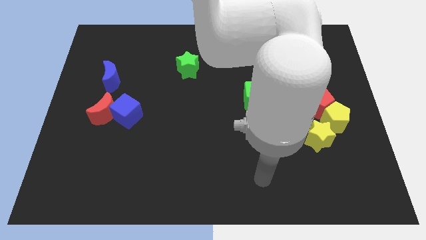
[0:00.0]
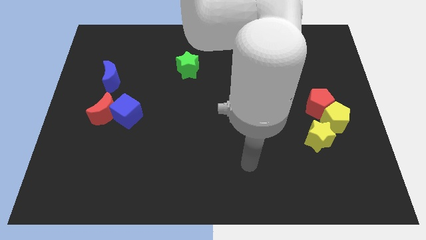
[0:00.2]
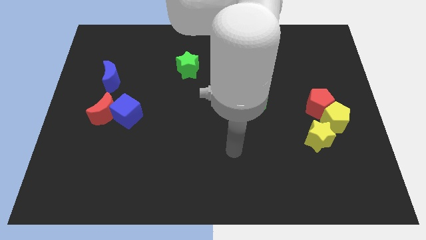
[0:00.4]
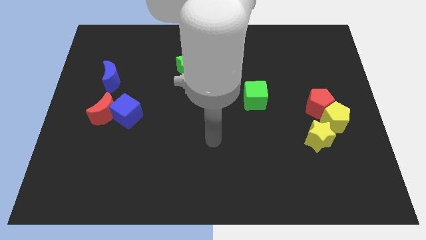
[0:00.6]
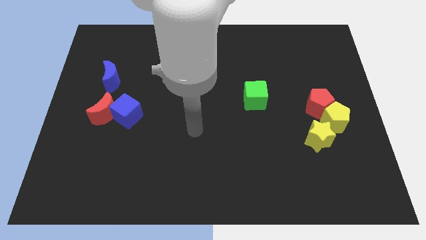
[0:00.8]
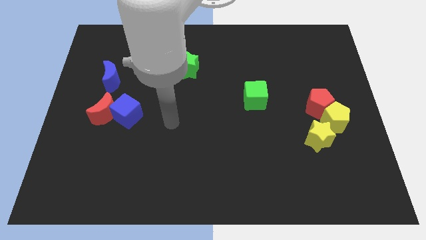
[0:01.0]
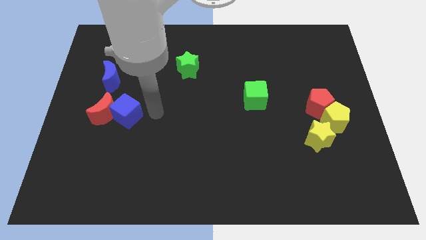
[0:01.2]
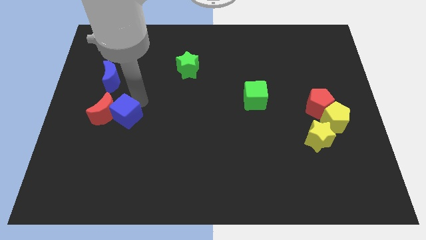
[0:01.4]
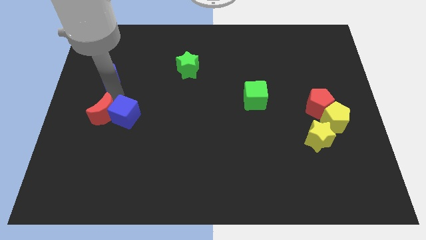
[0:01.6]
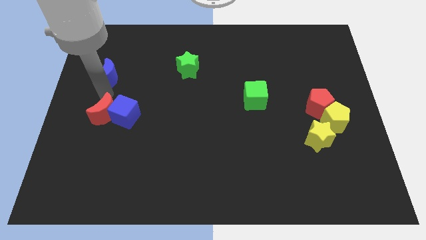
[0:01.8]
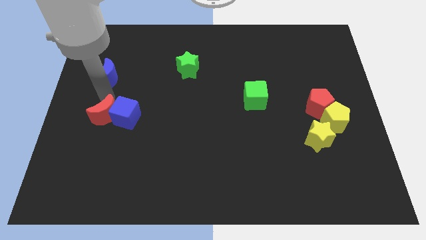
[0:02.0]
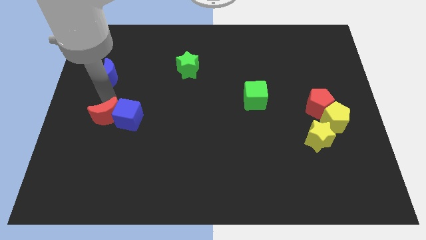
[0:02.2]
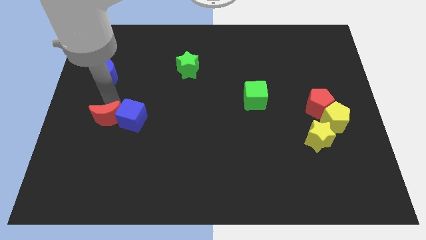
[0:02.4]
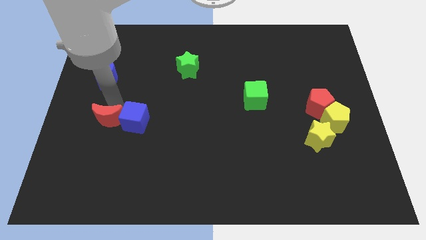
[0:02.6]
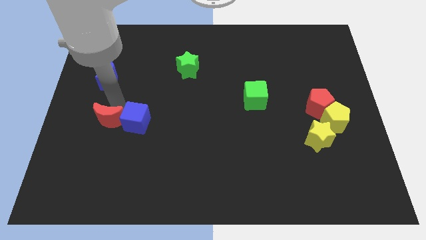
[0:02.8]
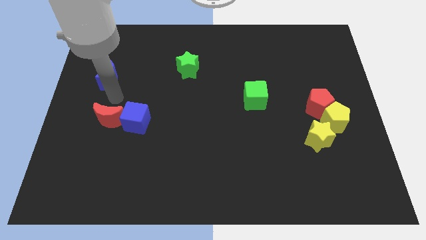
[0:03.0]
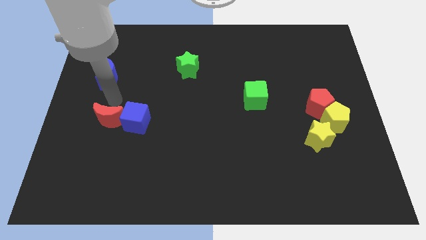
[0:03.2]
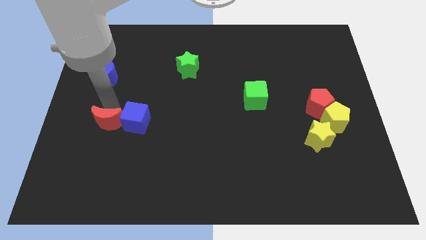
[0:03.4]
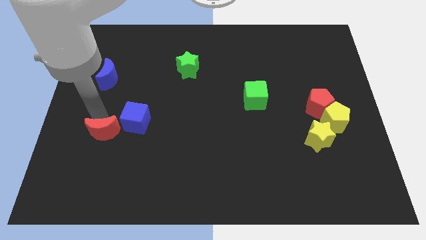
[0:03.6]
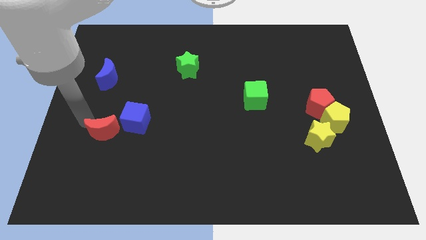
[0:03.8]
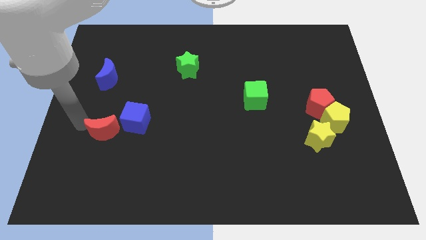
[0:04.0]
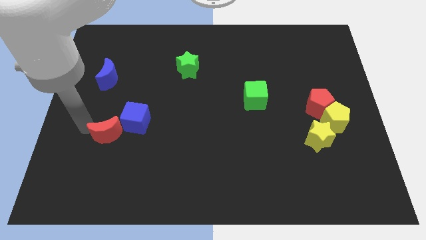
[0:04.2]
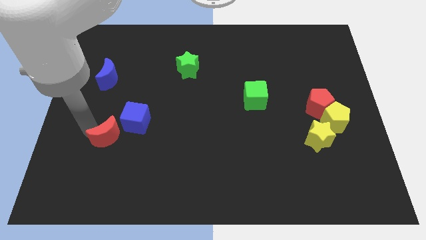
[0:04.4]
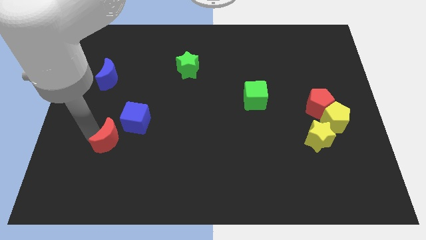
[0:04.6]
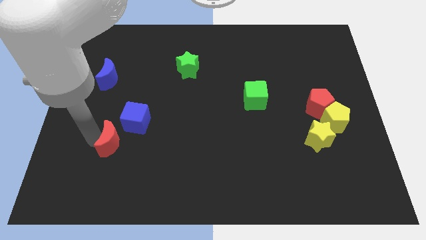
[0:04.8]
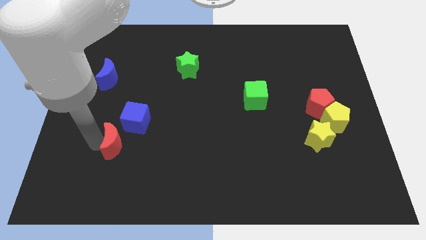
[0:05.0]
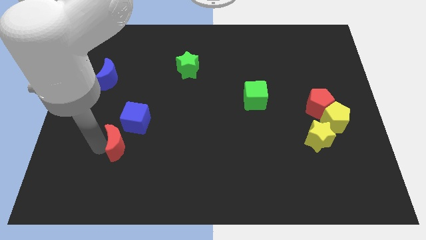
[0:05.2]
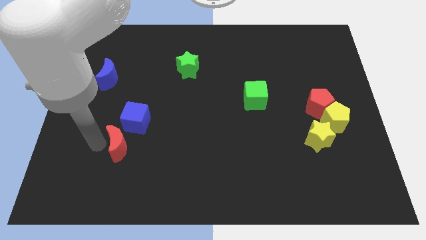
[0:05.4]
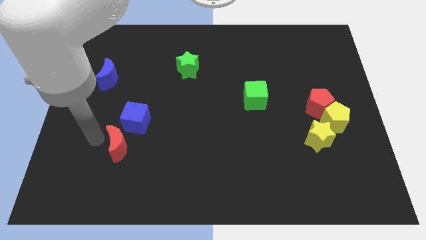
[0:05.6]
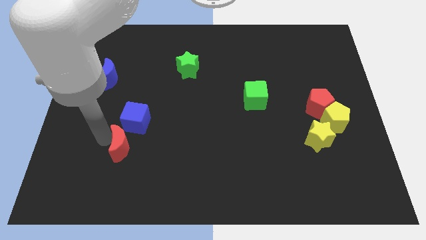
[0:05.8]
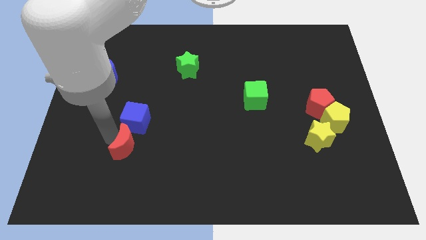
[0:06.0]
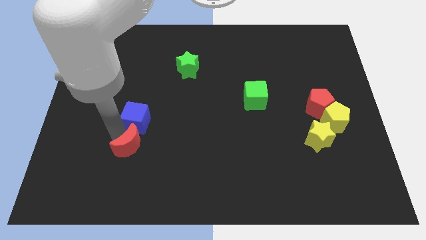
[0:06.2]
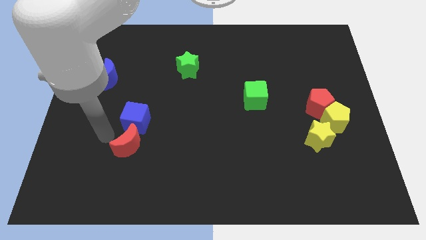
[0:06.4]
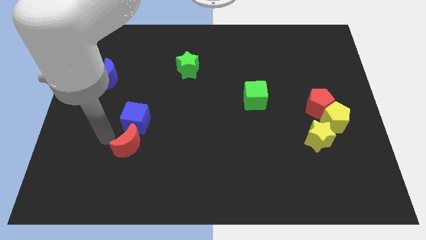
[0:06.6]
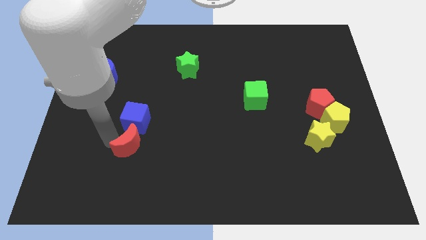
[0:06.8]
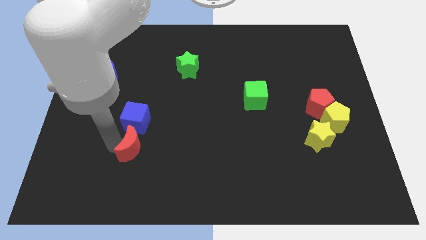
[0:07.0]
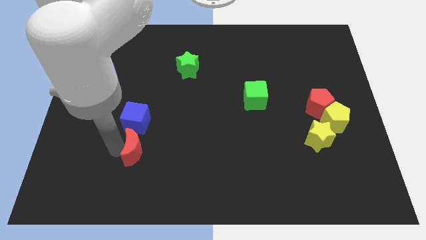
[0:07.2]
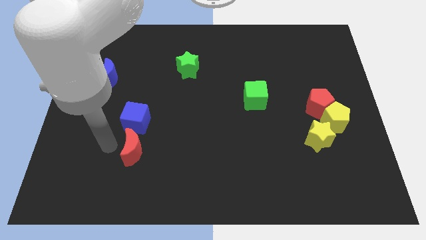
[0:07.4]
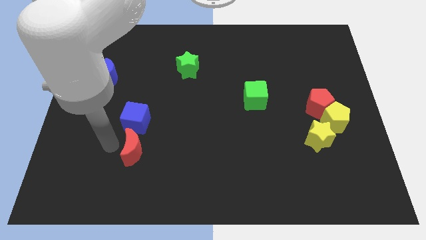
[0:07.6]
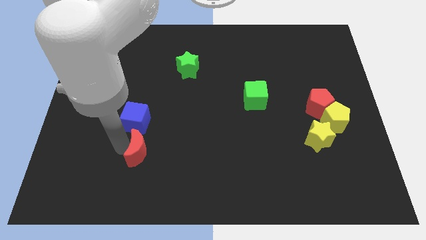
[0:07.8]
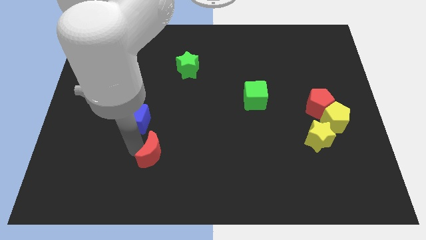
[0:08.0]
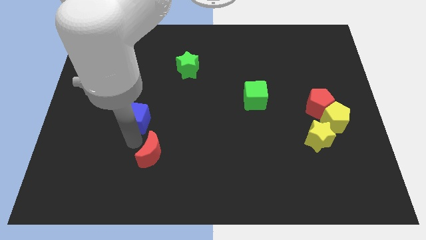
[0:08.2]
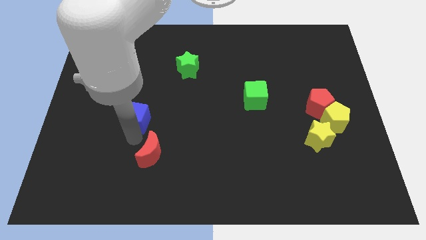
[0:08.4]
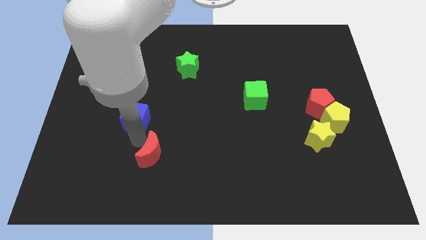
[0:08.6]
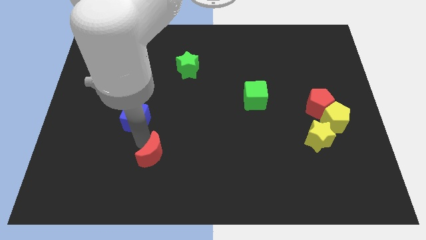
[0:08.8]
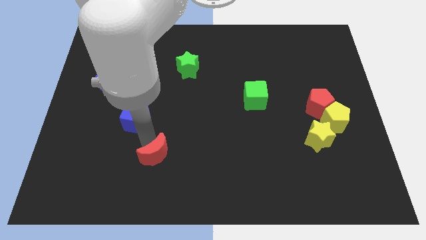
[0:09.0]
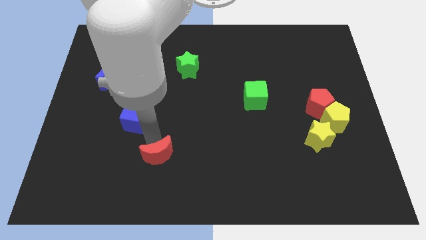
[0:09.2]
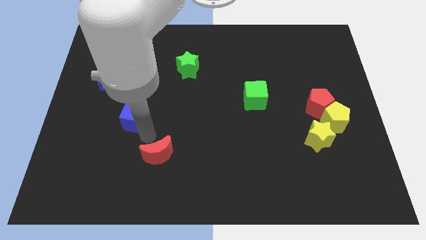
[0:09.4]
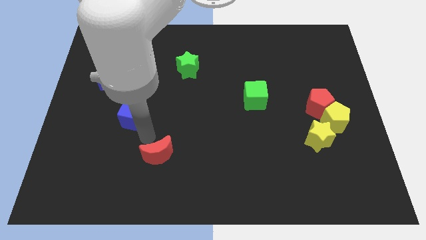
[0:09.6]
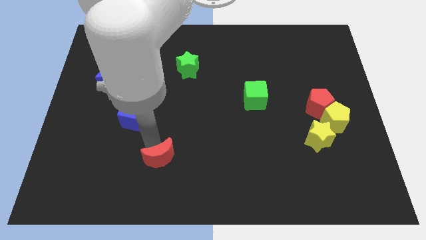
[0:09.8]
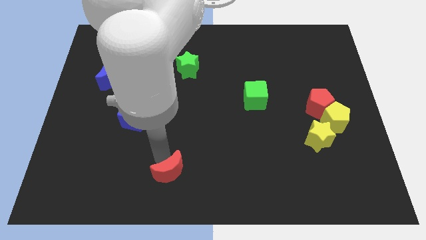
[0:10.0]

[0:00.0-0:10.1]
push the red moon to the bottom
